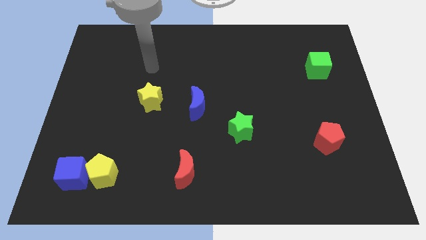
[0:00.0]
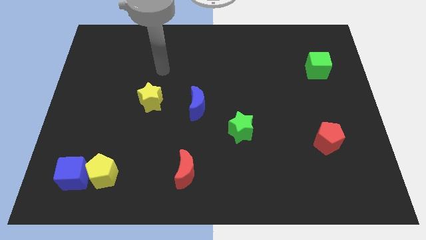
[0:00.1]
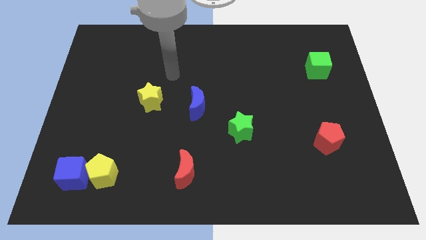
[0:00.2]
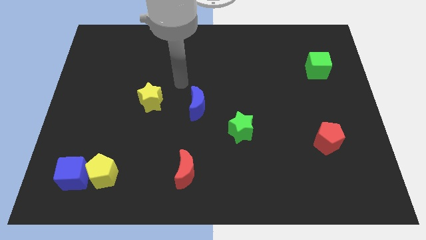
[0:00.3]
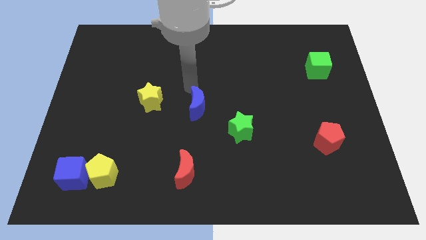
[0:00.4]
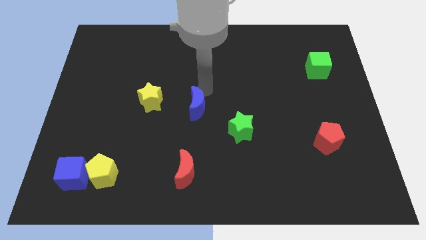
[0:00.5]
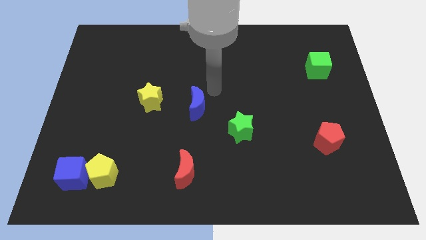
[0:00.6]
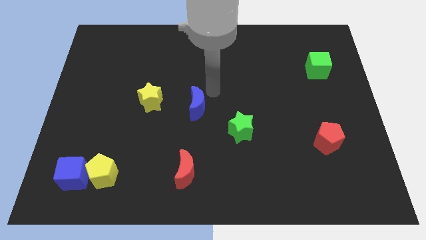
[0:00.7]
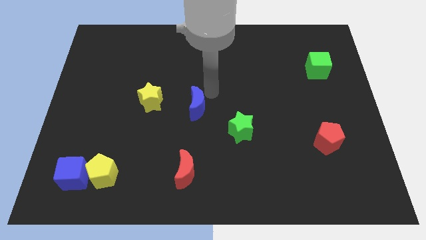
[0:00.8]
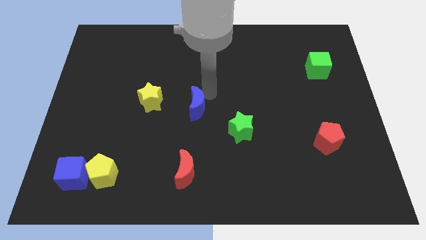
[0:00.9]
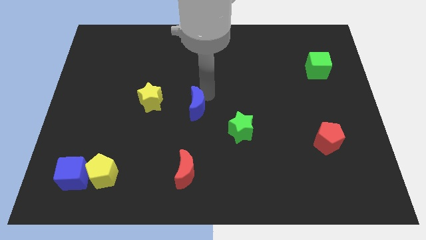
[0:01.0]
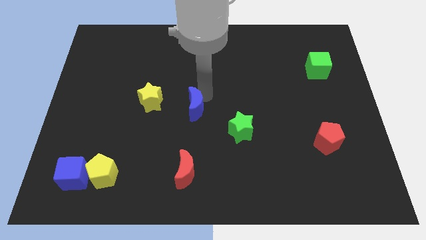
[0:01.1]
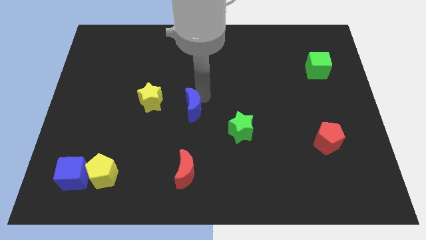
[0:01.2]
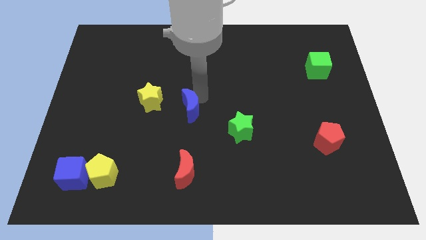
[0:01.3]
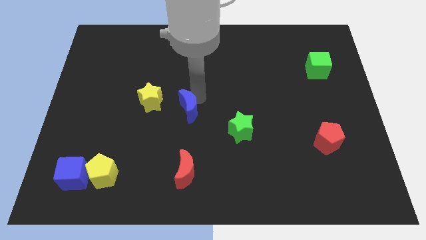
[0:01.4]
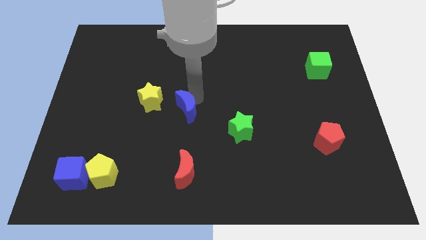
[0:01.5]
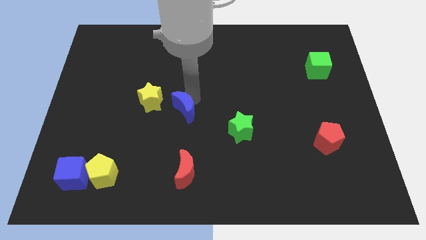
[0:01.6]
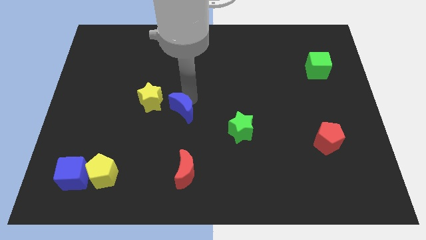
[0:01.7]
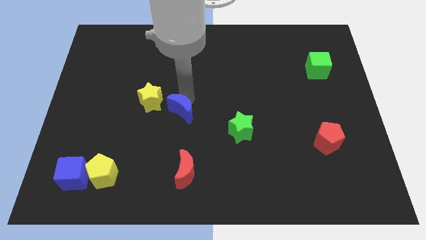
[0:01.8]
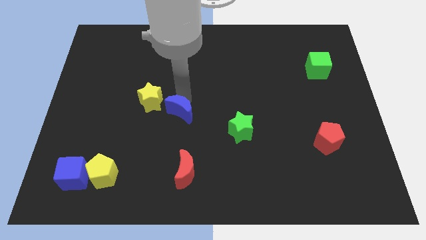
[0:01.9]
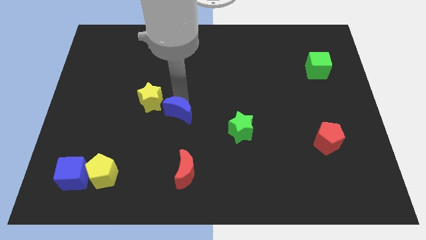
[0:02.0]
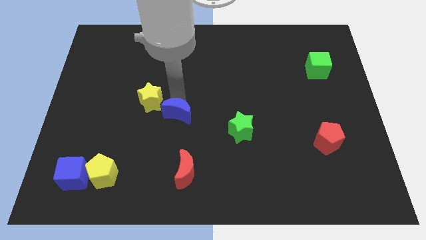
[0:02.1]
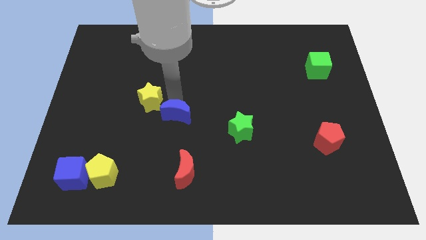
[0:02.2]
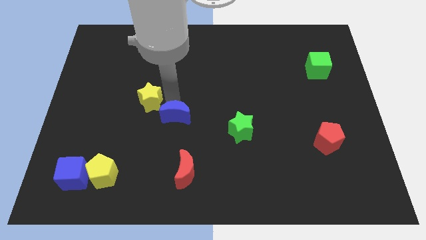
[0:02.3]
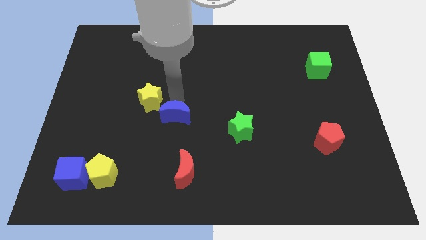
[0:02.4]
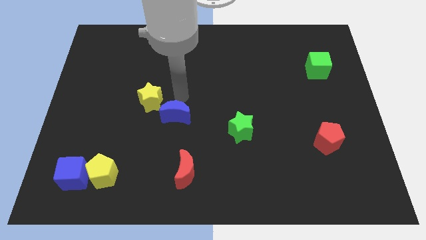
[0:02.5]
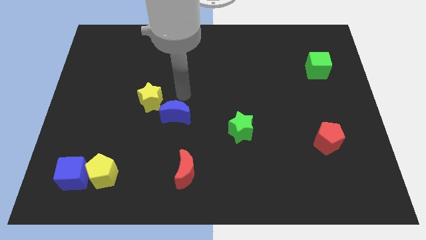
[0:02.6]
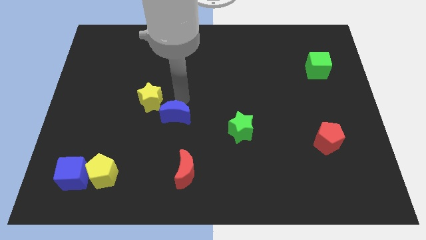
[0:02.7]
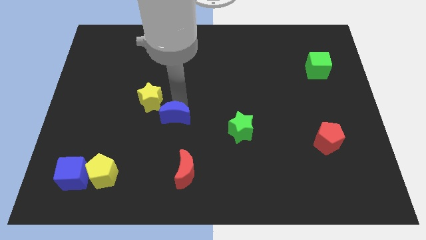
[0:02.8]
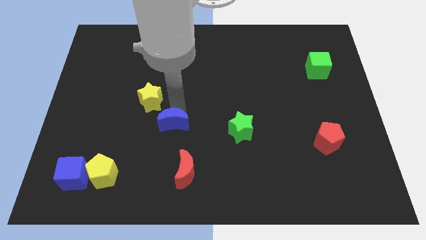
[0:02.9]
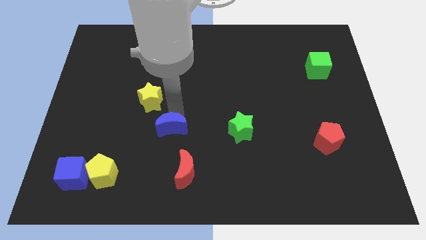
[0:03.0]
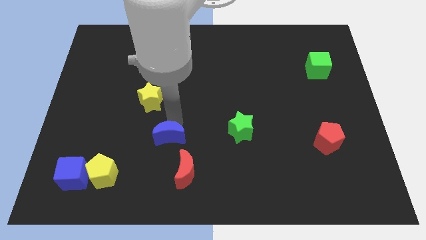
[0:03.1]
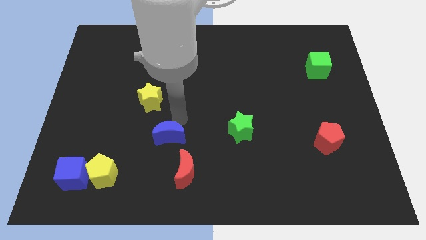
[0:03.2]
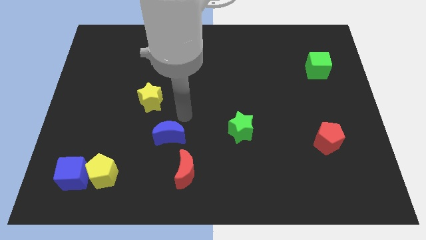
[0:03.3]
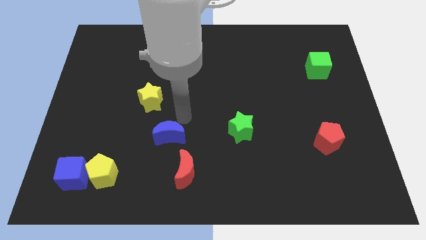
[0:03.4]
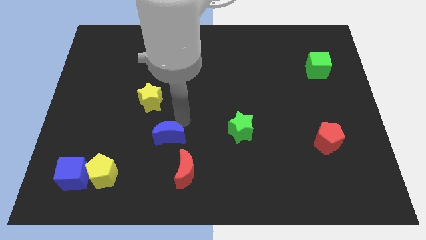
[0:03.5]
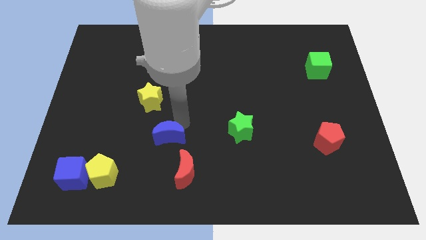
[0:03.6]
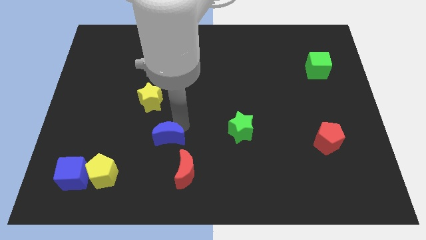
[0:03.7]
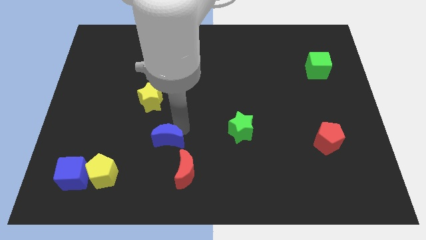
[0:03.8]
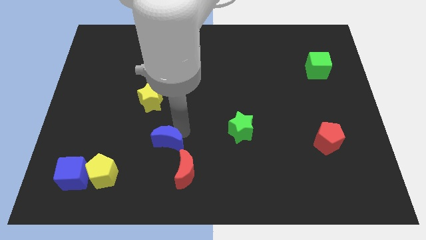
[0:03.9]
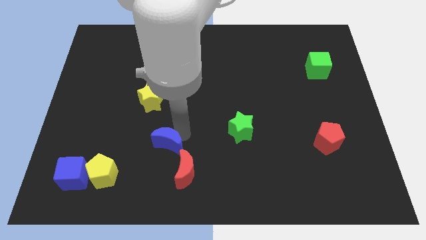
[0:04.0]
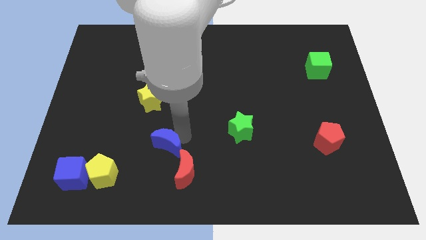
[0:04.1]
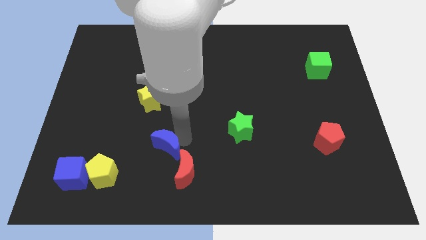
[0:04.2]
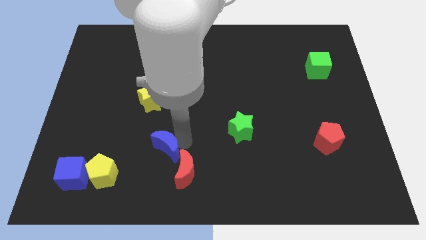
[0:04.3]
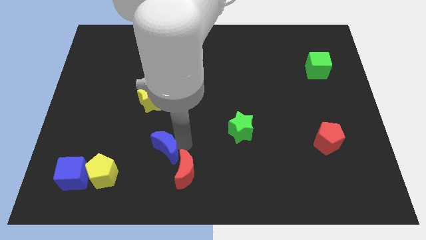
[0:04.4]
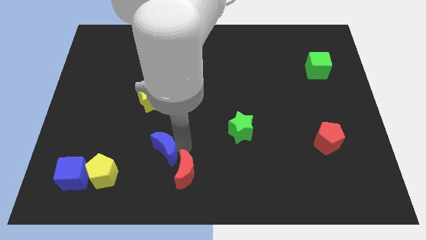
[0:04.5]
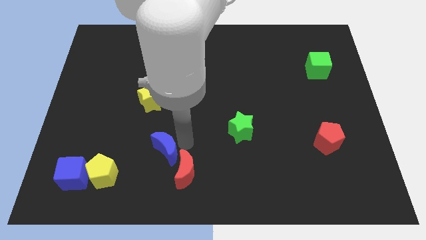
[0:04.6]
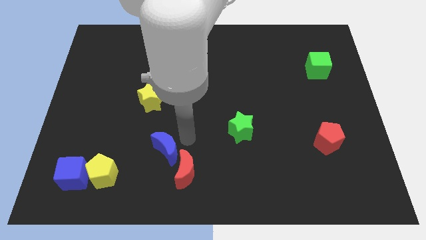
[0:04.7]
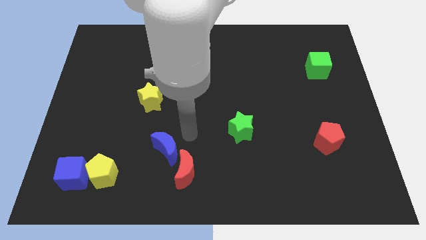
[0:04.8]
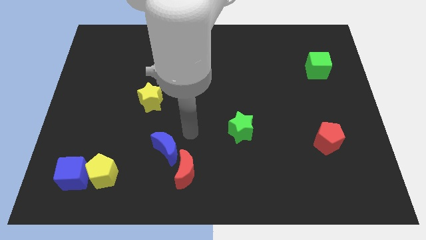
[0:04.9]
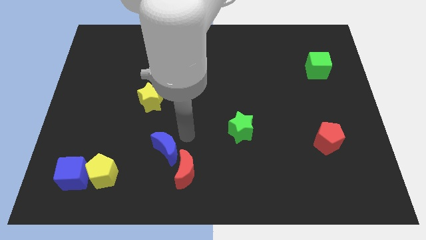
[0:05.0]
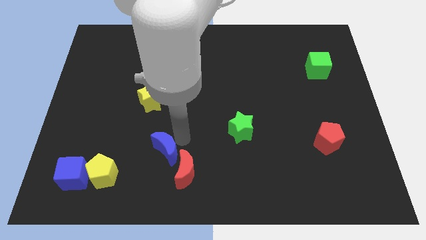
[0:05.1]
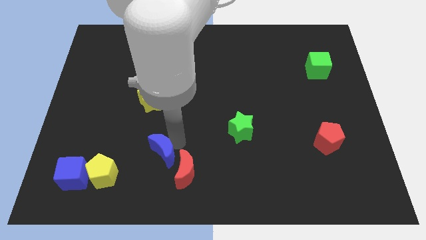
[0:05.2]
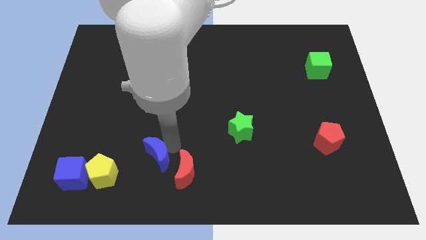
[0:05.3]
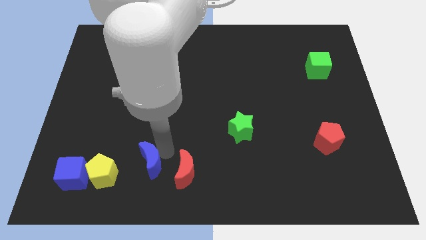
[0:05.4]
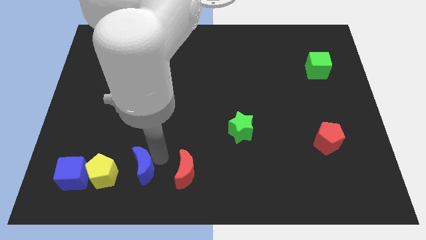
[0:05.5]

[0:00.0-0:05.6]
slide the blue moon to the right of the blue cube

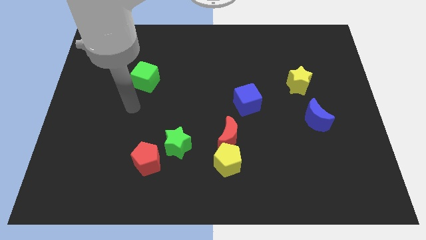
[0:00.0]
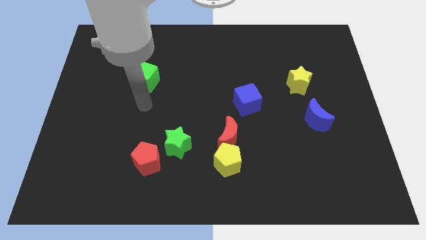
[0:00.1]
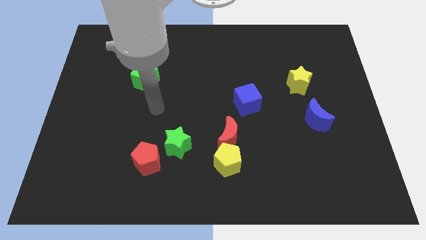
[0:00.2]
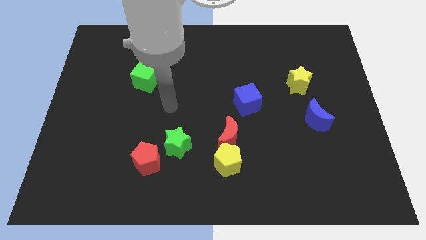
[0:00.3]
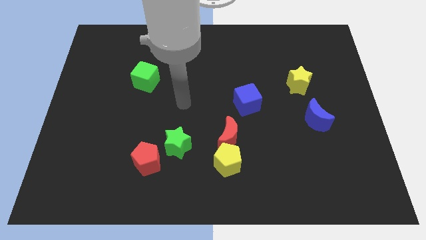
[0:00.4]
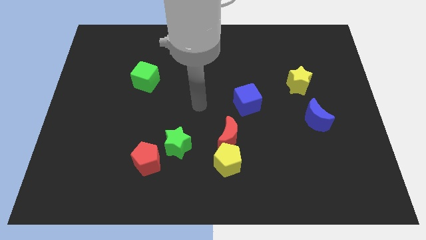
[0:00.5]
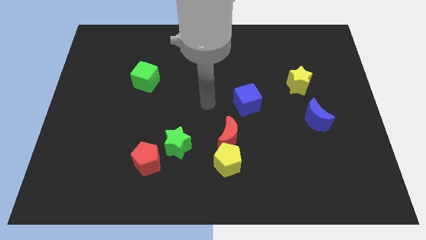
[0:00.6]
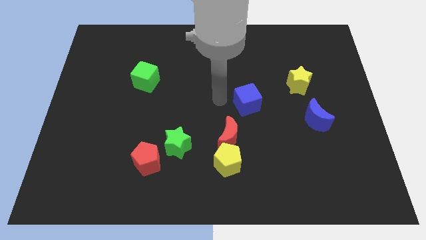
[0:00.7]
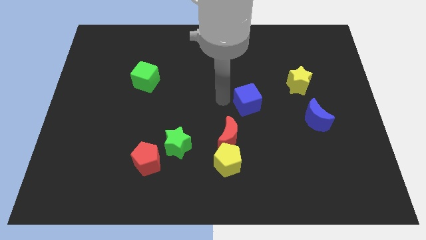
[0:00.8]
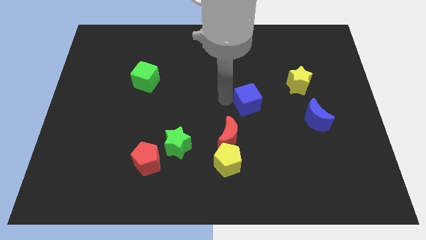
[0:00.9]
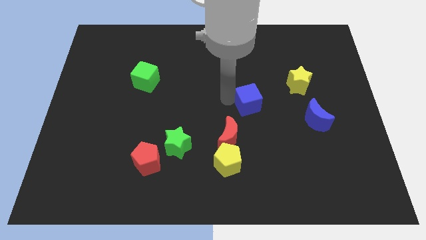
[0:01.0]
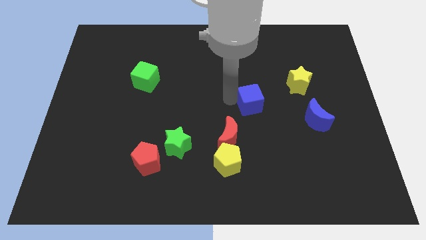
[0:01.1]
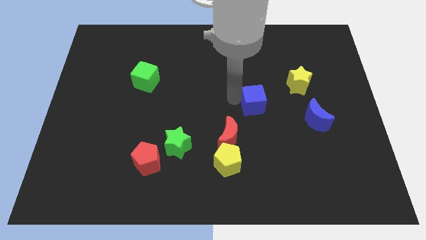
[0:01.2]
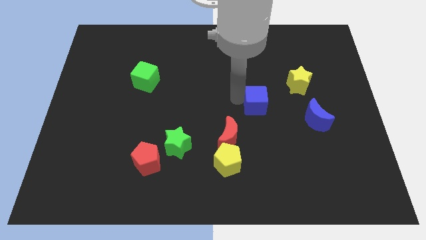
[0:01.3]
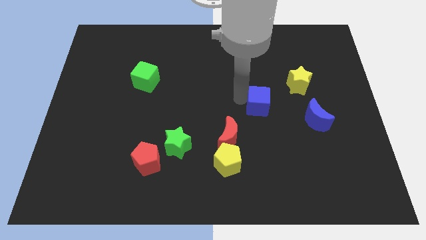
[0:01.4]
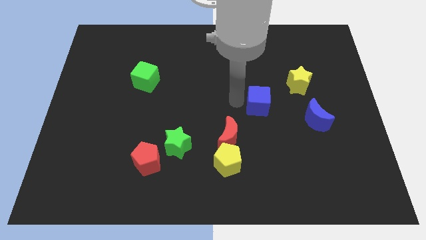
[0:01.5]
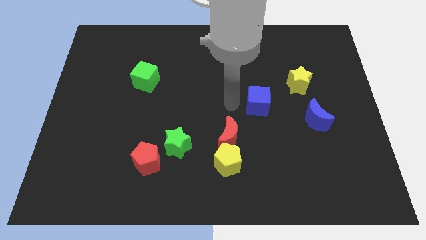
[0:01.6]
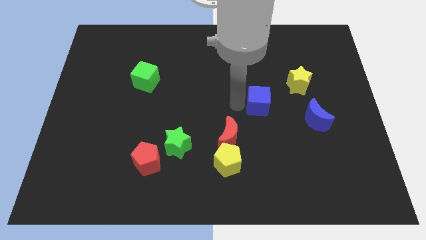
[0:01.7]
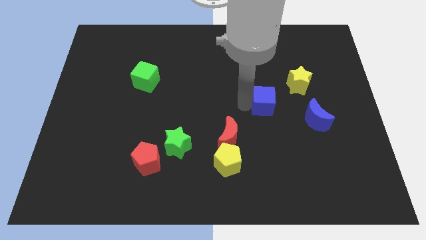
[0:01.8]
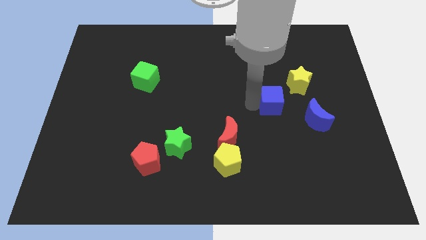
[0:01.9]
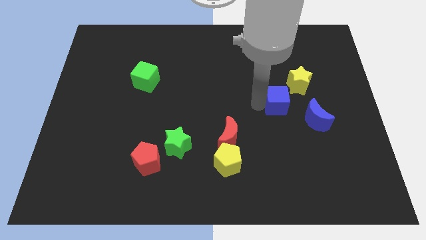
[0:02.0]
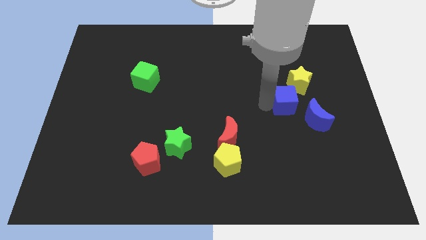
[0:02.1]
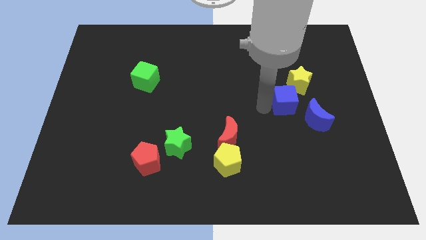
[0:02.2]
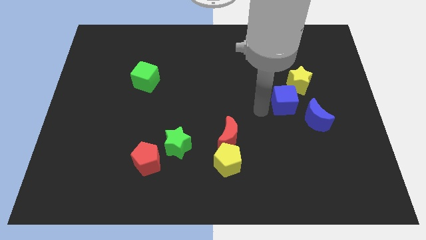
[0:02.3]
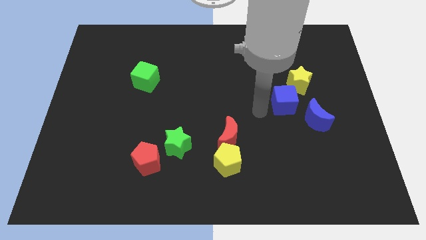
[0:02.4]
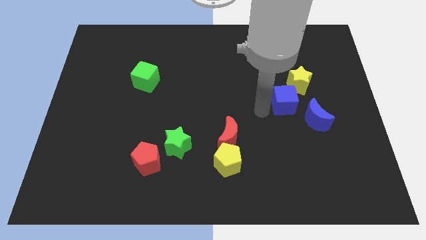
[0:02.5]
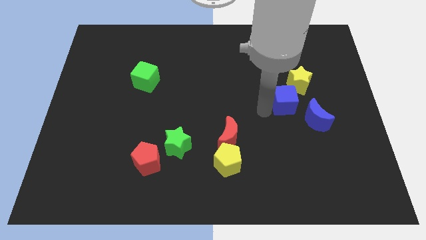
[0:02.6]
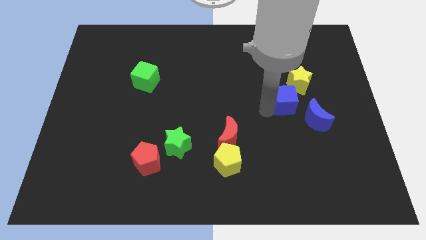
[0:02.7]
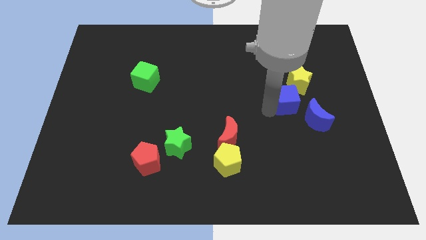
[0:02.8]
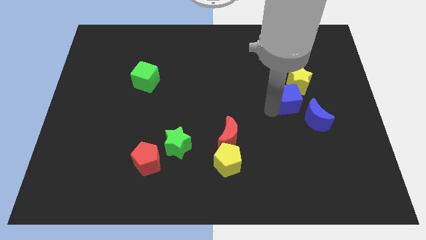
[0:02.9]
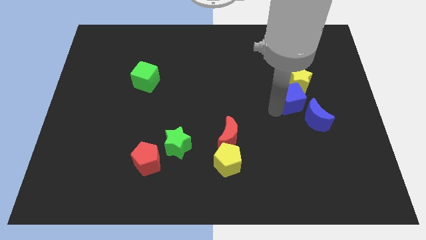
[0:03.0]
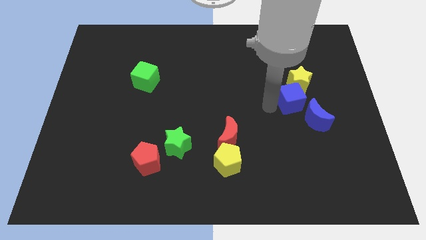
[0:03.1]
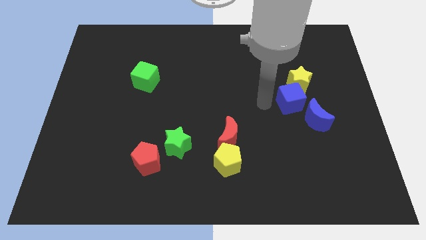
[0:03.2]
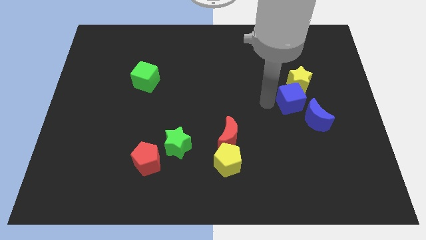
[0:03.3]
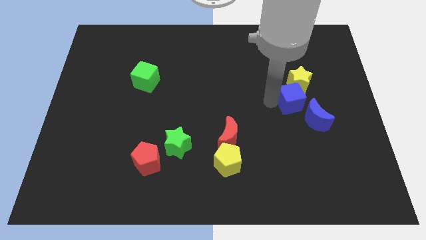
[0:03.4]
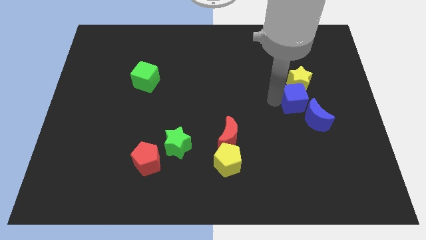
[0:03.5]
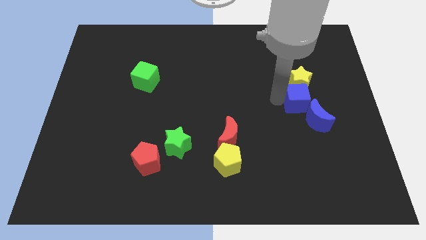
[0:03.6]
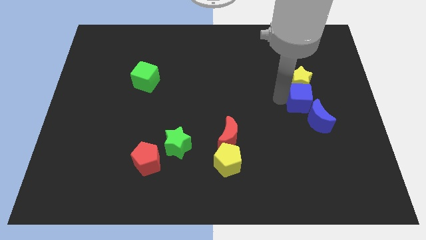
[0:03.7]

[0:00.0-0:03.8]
push the blue cube diagonally down and to the right of the yellow star
